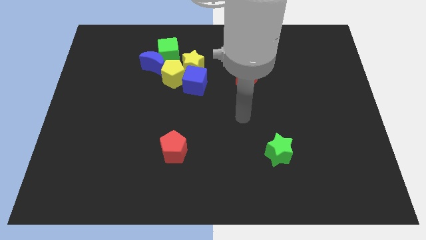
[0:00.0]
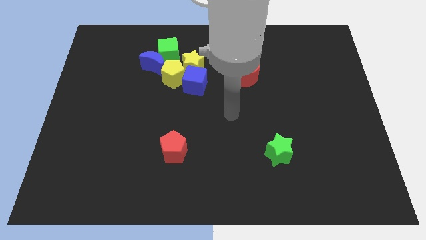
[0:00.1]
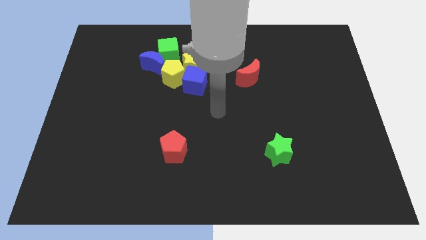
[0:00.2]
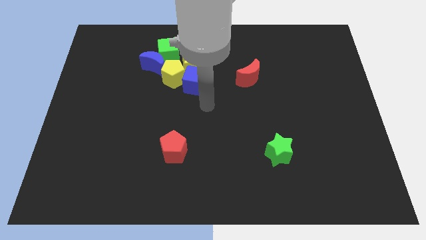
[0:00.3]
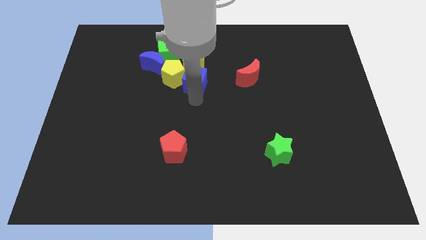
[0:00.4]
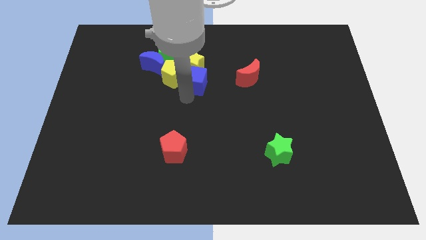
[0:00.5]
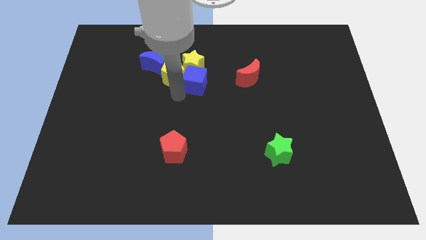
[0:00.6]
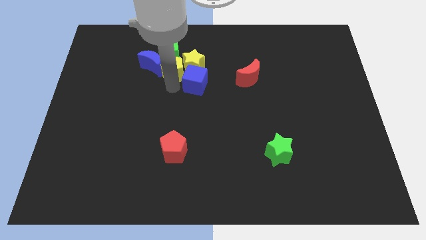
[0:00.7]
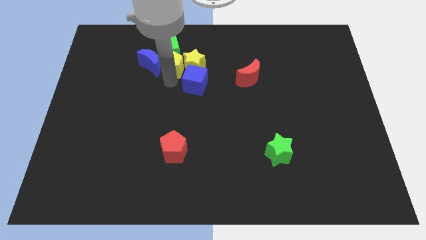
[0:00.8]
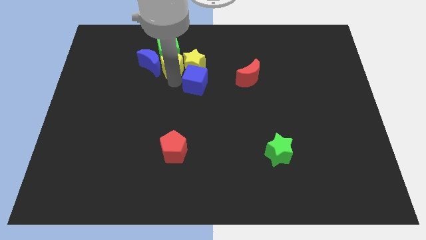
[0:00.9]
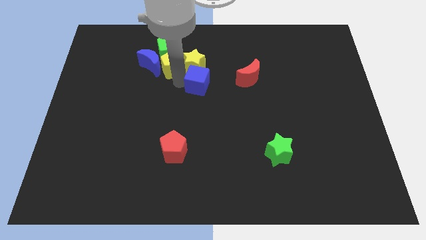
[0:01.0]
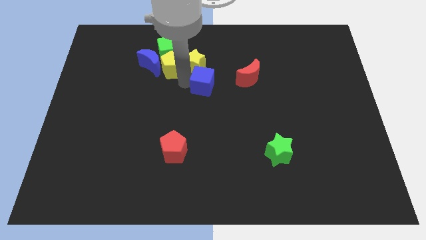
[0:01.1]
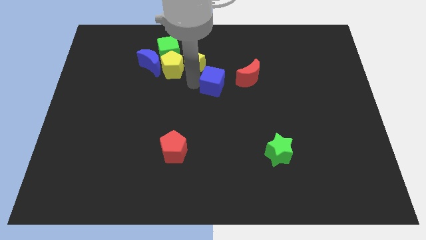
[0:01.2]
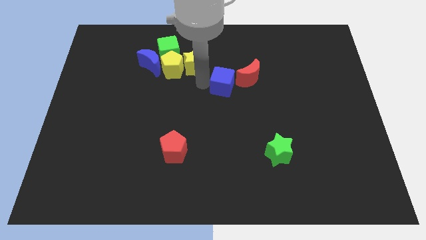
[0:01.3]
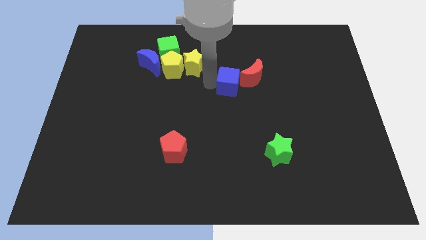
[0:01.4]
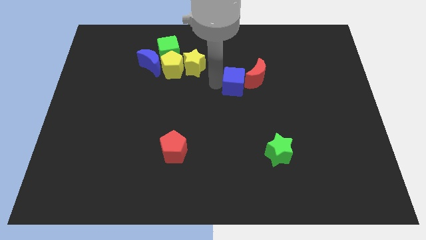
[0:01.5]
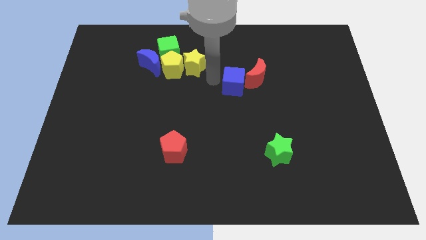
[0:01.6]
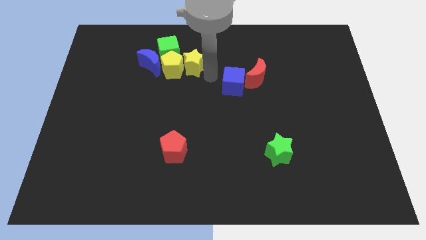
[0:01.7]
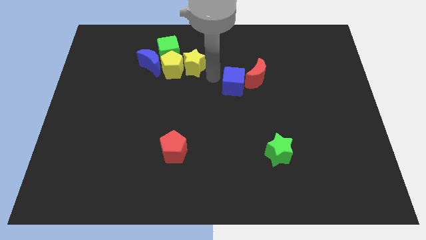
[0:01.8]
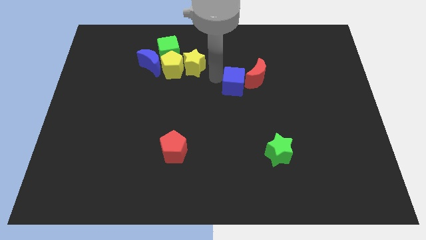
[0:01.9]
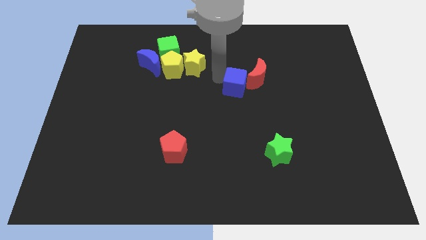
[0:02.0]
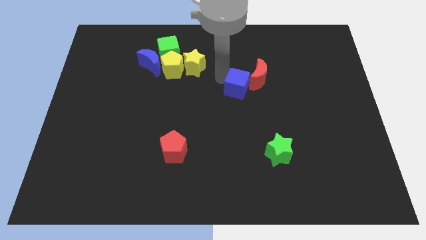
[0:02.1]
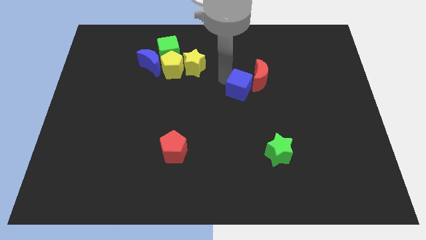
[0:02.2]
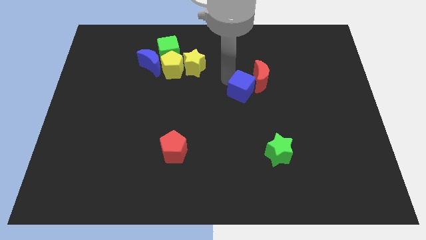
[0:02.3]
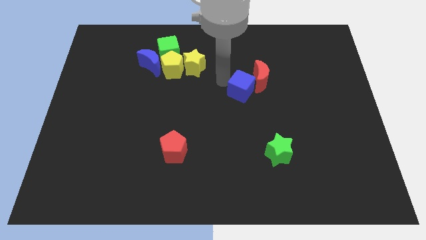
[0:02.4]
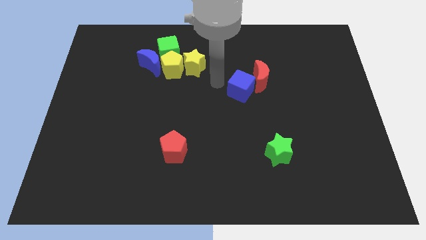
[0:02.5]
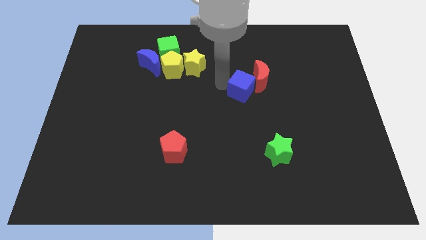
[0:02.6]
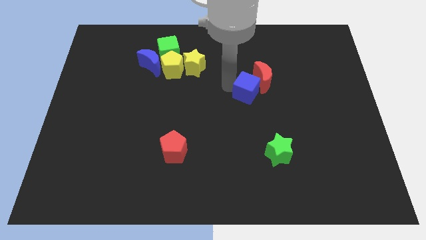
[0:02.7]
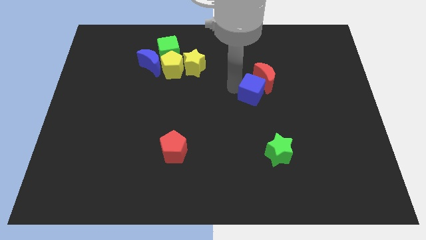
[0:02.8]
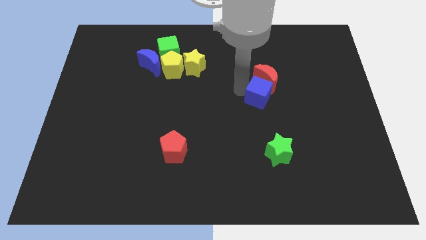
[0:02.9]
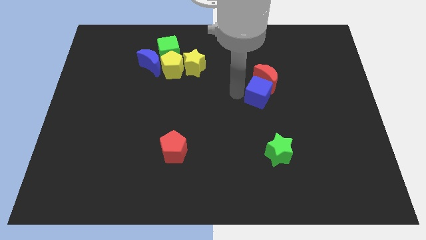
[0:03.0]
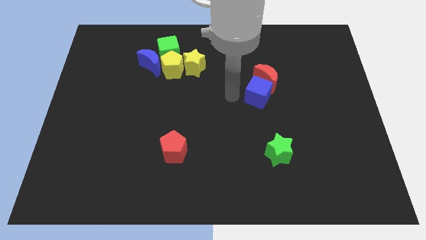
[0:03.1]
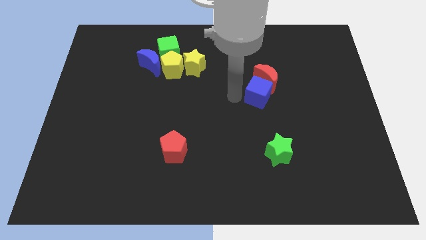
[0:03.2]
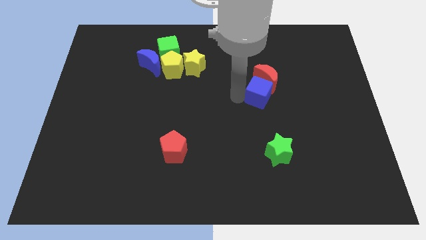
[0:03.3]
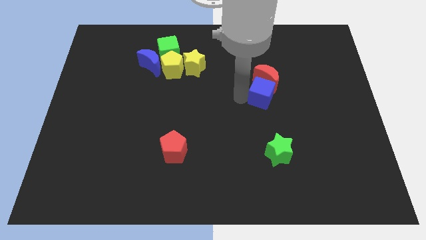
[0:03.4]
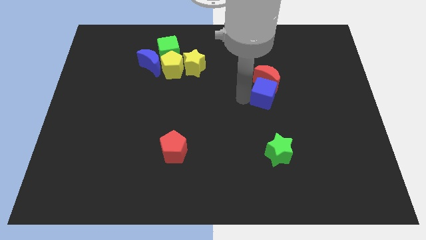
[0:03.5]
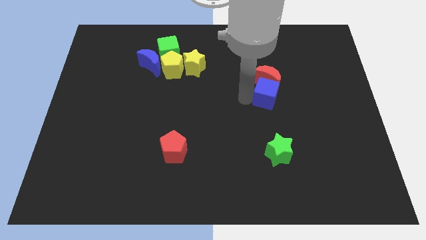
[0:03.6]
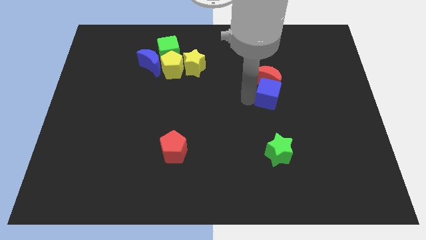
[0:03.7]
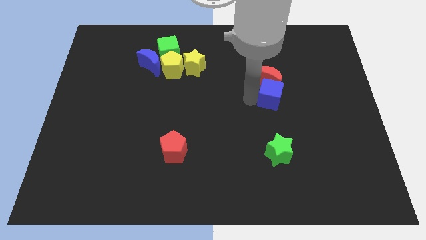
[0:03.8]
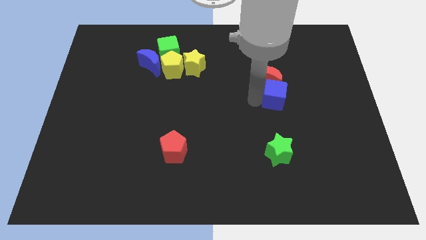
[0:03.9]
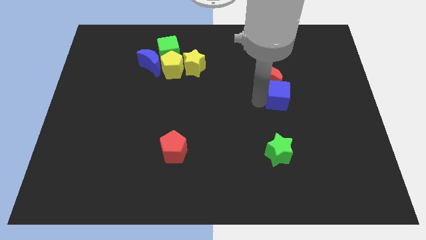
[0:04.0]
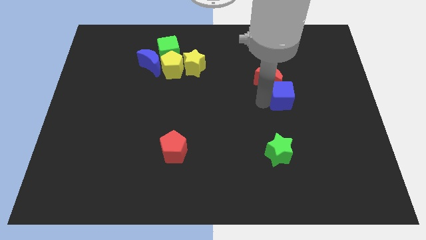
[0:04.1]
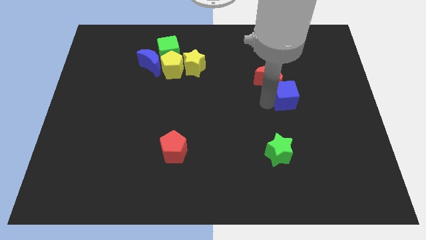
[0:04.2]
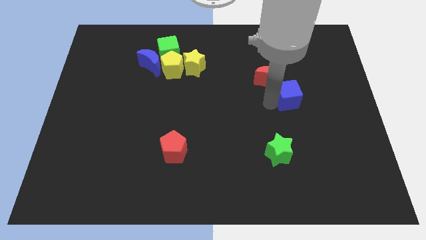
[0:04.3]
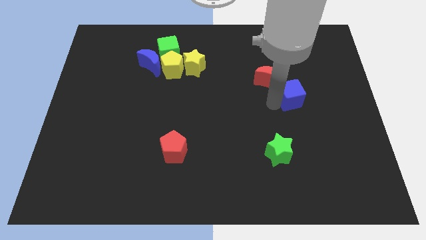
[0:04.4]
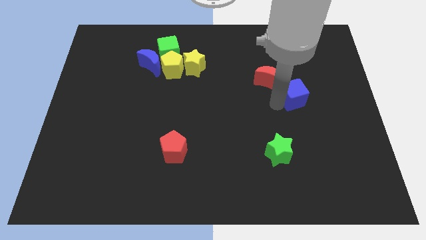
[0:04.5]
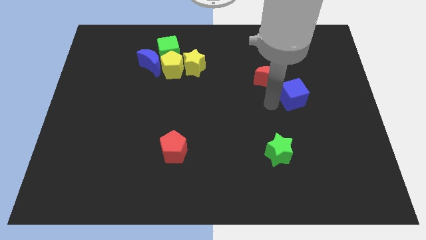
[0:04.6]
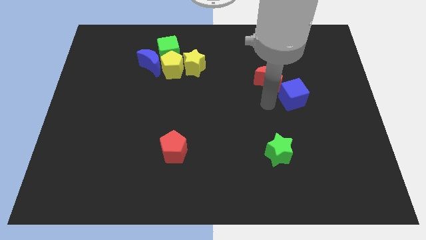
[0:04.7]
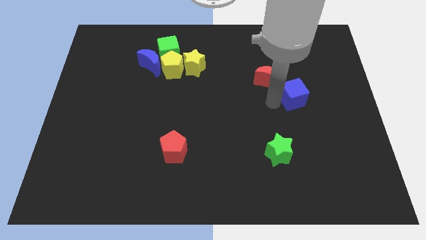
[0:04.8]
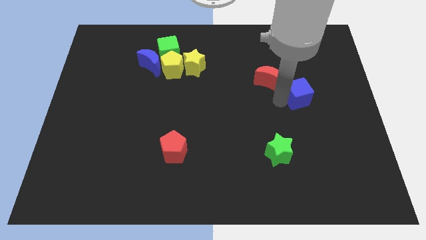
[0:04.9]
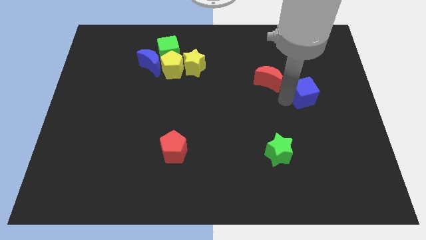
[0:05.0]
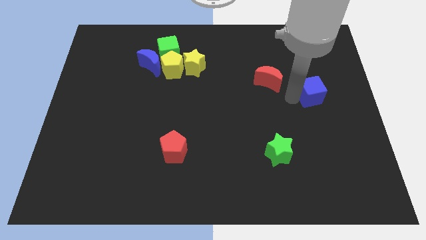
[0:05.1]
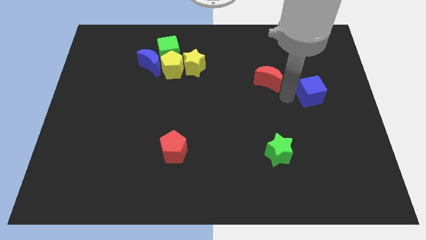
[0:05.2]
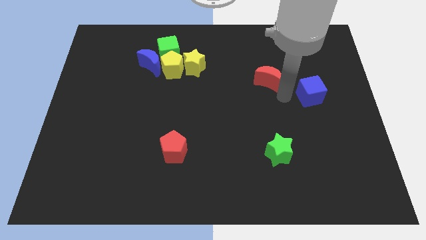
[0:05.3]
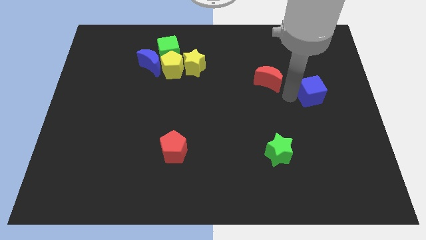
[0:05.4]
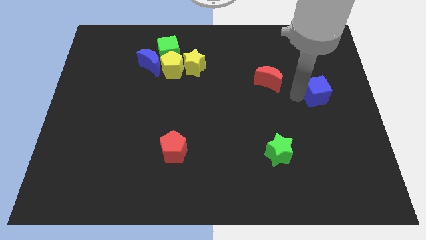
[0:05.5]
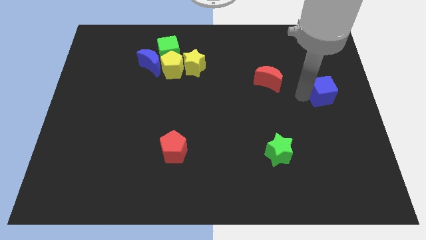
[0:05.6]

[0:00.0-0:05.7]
push the blue cube to the center right

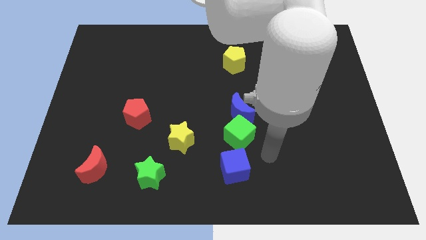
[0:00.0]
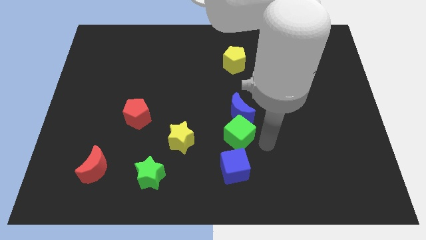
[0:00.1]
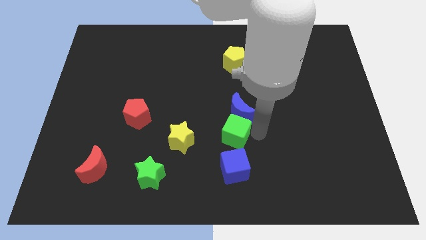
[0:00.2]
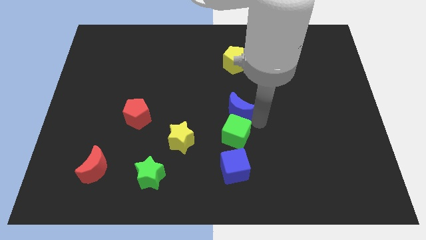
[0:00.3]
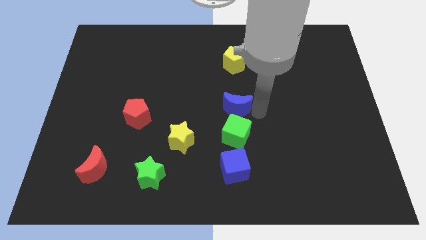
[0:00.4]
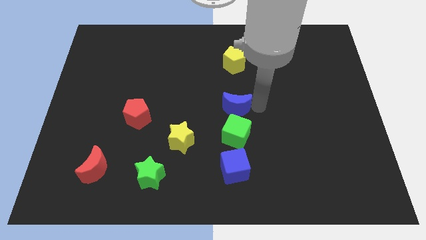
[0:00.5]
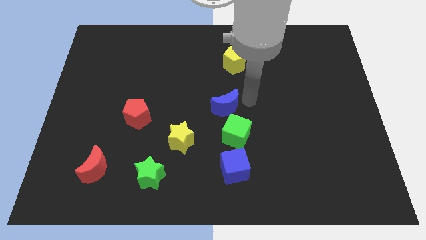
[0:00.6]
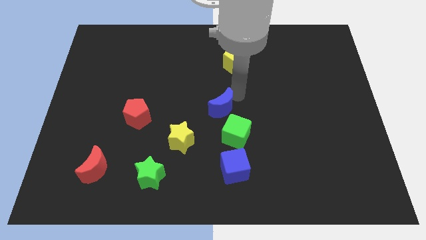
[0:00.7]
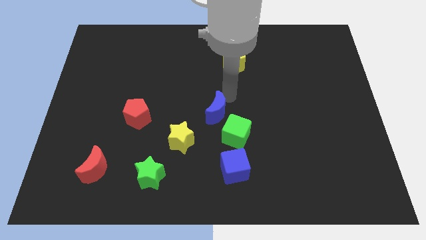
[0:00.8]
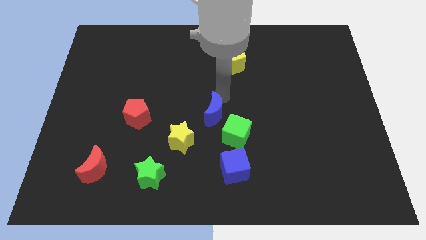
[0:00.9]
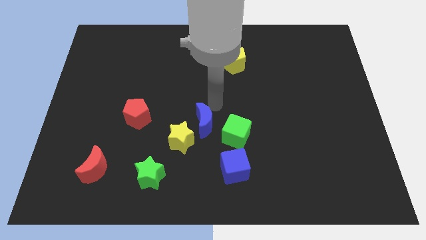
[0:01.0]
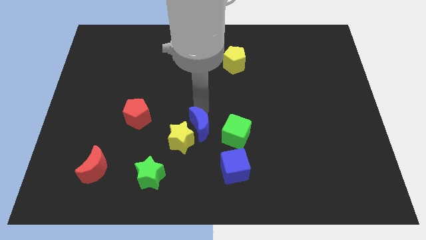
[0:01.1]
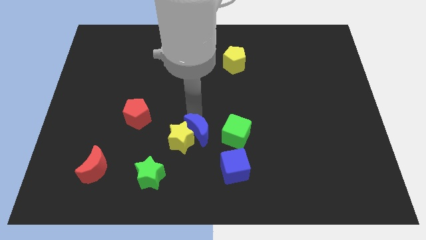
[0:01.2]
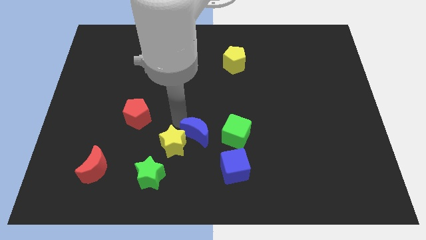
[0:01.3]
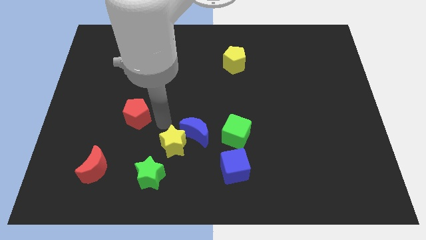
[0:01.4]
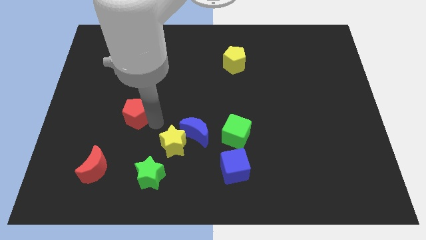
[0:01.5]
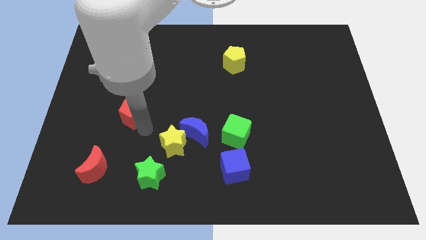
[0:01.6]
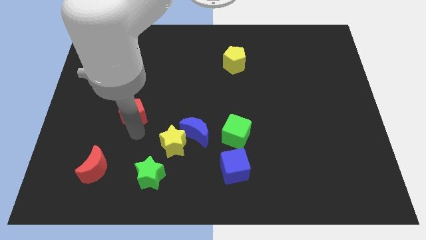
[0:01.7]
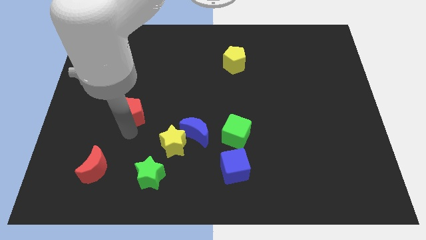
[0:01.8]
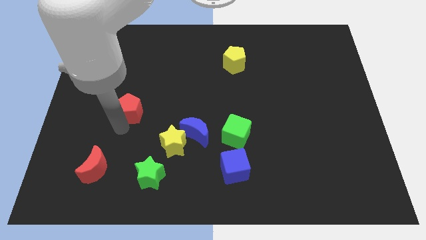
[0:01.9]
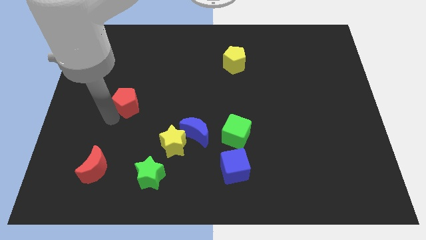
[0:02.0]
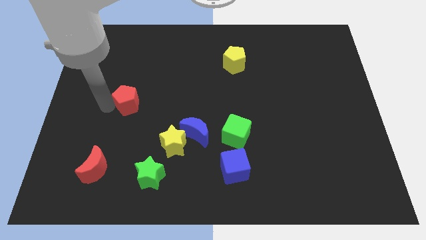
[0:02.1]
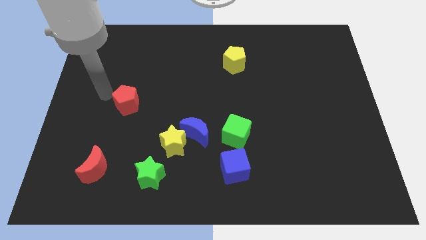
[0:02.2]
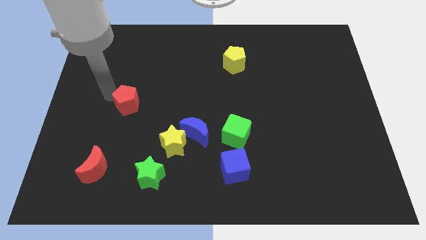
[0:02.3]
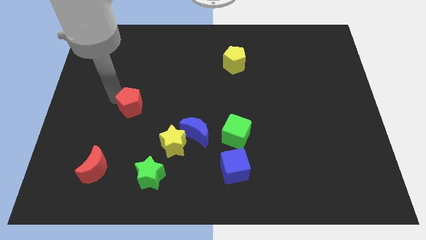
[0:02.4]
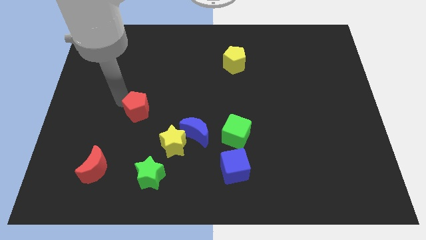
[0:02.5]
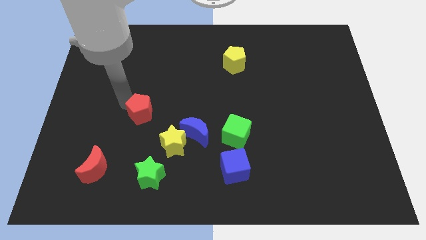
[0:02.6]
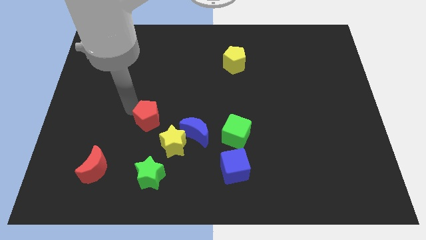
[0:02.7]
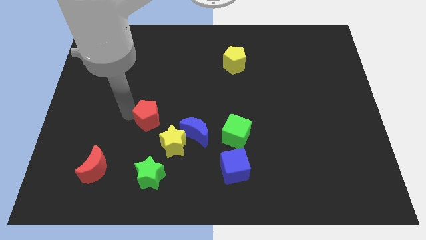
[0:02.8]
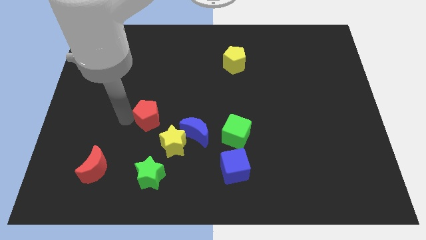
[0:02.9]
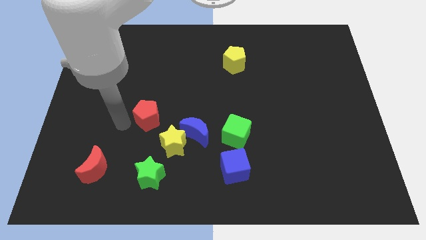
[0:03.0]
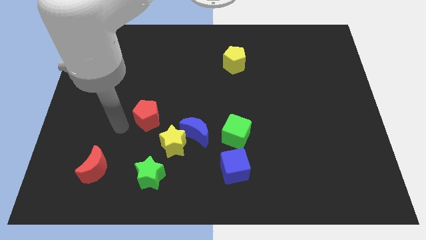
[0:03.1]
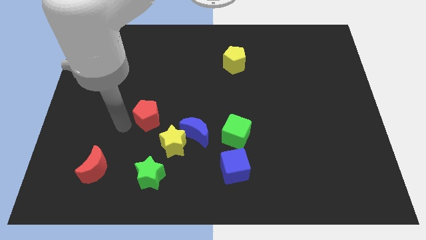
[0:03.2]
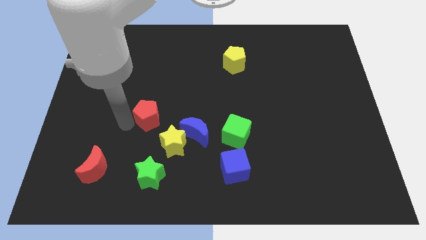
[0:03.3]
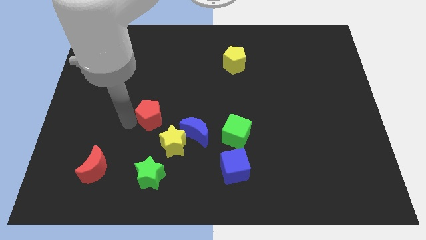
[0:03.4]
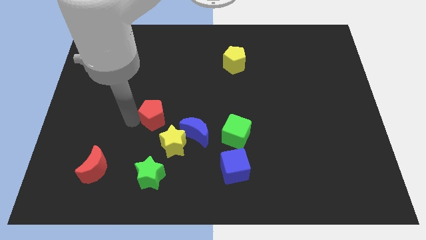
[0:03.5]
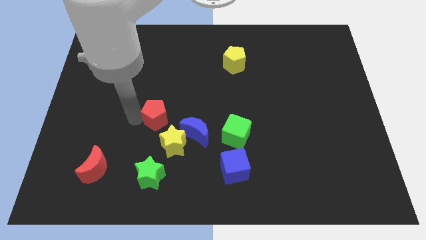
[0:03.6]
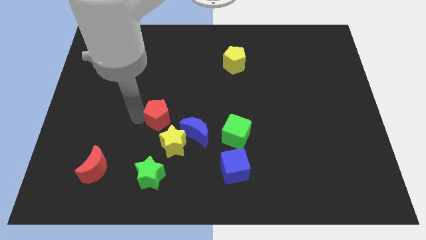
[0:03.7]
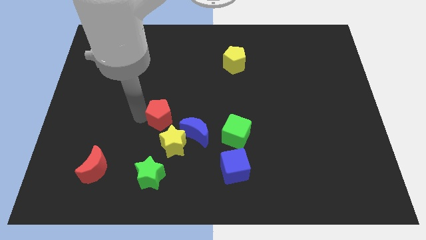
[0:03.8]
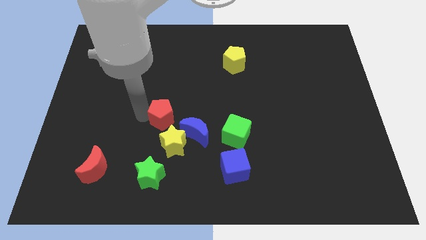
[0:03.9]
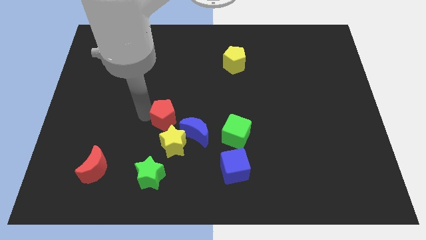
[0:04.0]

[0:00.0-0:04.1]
move the red pentagon to the middle of the board
